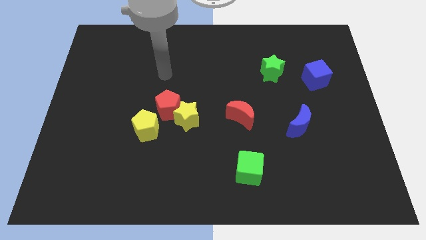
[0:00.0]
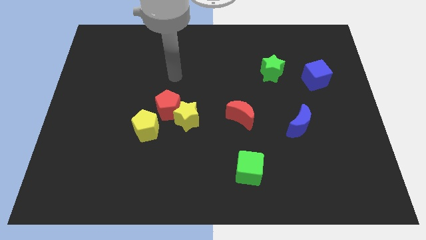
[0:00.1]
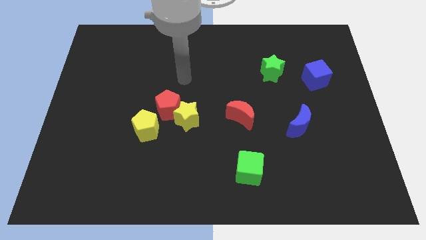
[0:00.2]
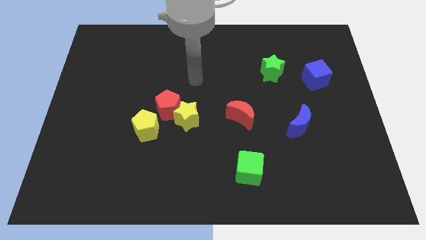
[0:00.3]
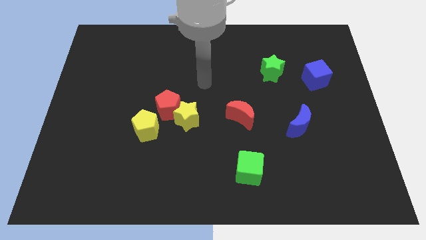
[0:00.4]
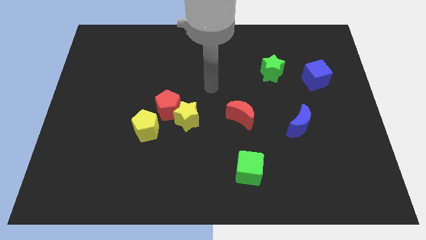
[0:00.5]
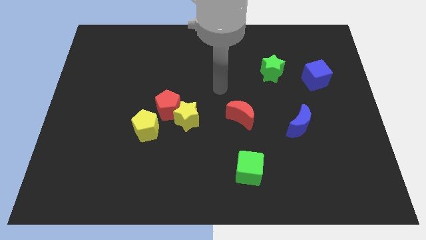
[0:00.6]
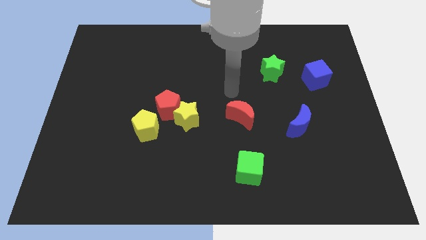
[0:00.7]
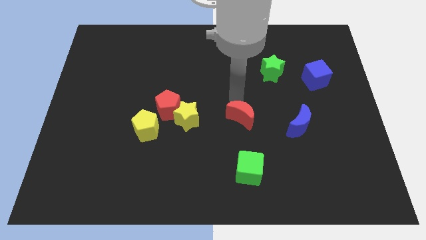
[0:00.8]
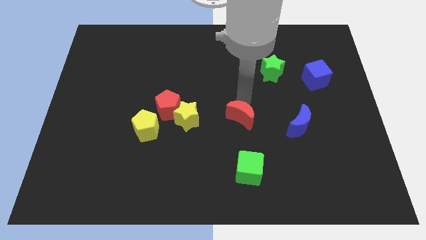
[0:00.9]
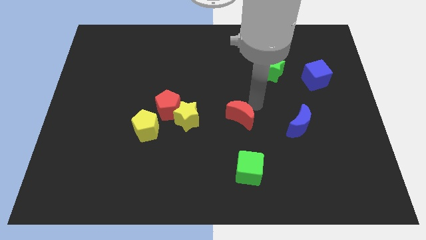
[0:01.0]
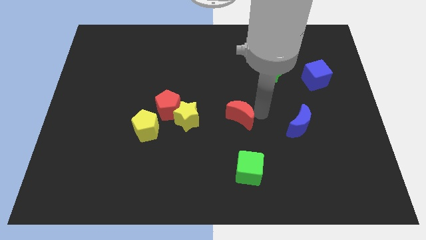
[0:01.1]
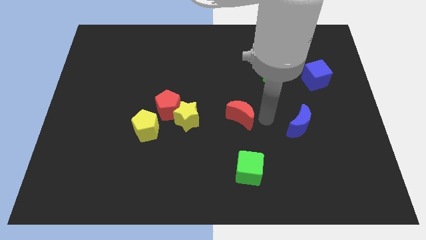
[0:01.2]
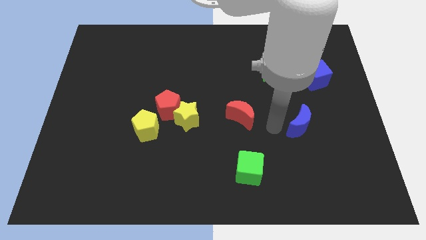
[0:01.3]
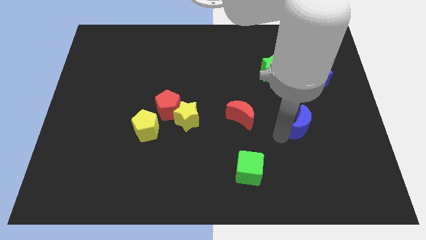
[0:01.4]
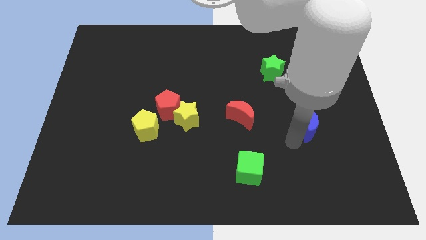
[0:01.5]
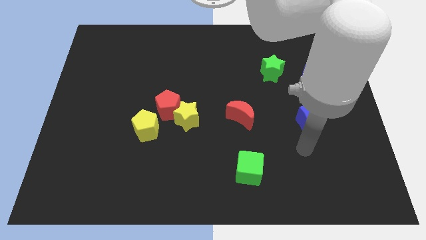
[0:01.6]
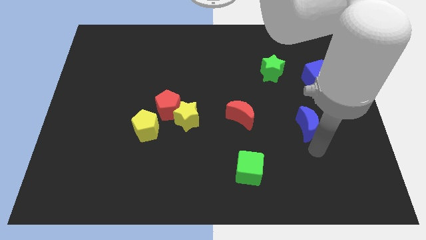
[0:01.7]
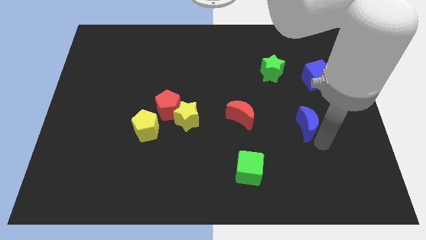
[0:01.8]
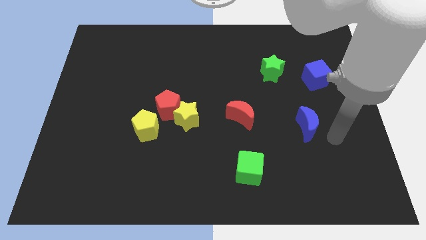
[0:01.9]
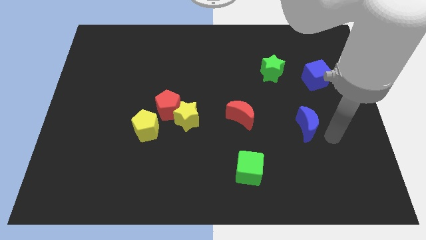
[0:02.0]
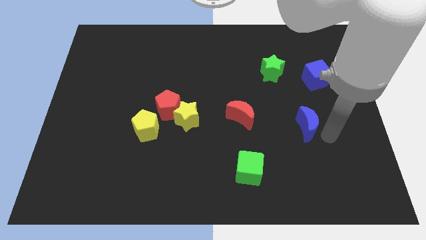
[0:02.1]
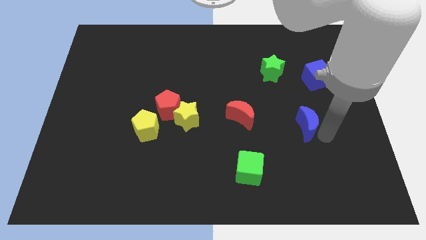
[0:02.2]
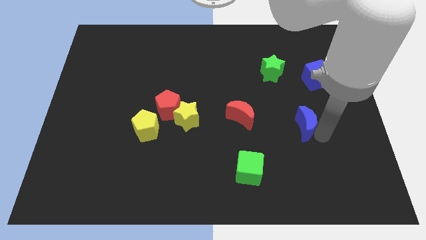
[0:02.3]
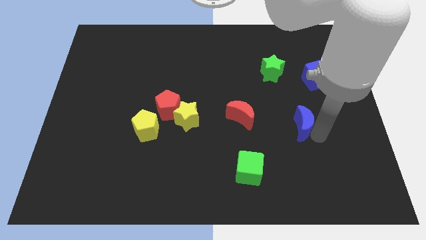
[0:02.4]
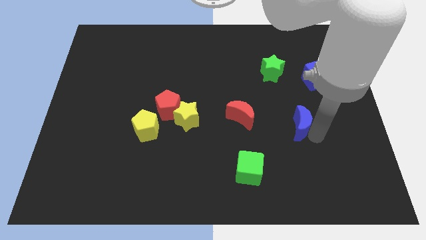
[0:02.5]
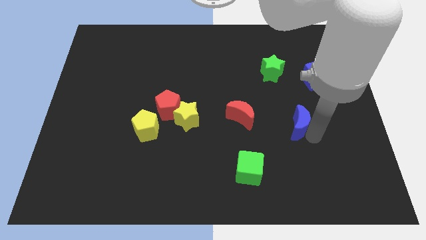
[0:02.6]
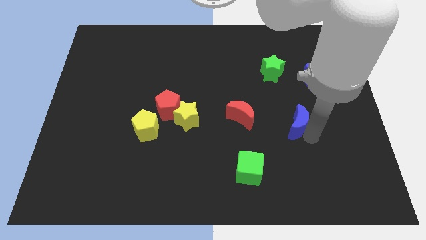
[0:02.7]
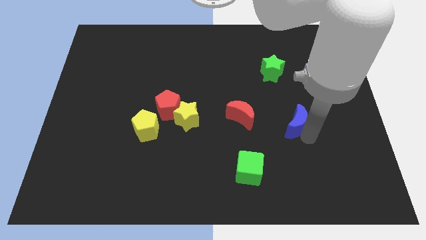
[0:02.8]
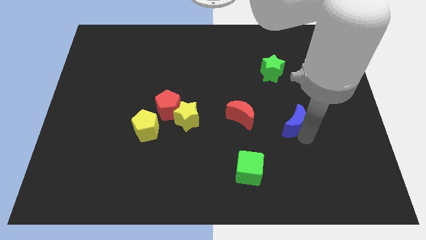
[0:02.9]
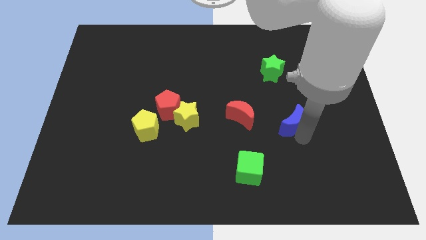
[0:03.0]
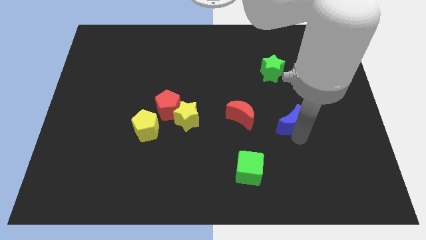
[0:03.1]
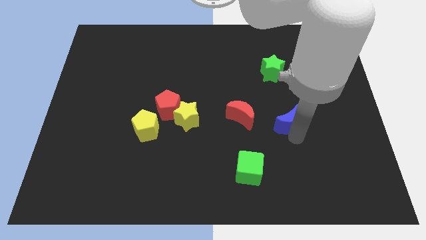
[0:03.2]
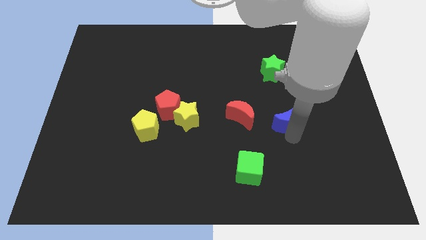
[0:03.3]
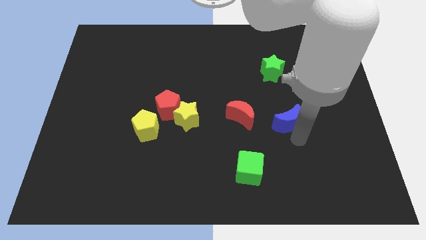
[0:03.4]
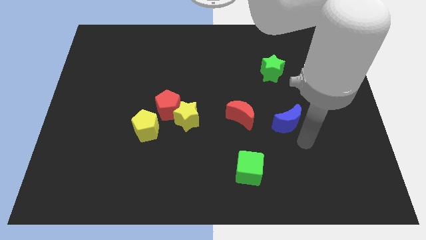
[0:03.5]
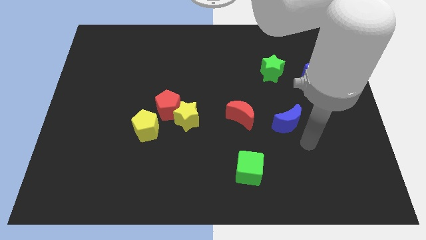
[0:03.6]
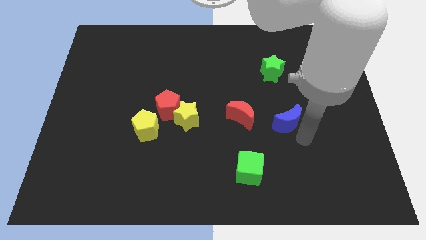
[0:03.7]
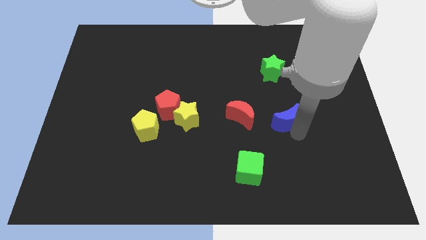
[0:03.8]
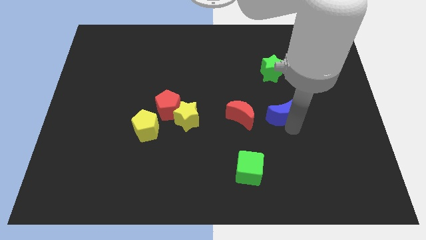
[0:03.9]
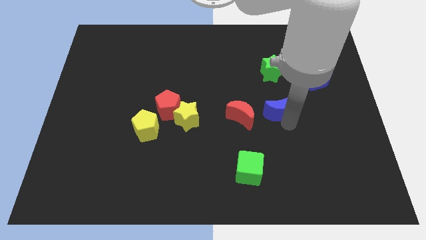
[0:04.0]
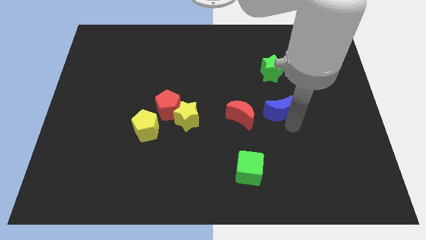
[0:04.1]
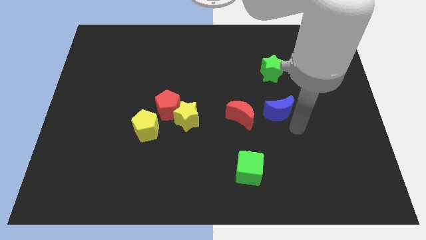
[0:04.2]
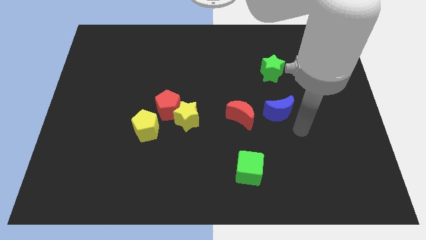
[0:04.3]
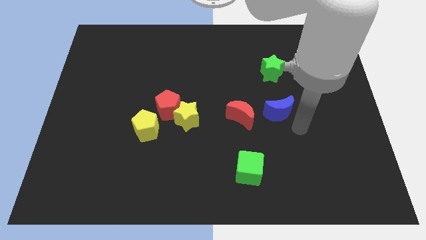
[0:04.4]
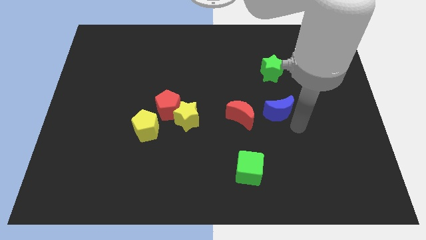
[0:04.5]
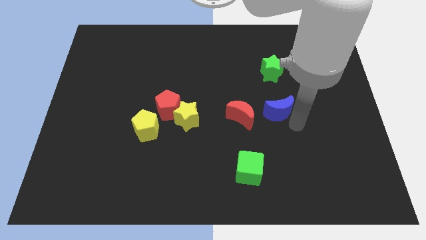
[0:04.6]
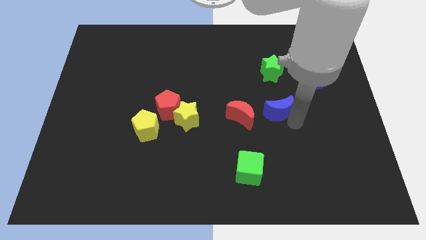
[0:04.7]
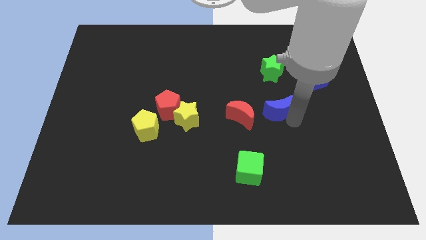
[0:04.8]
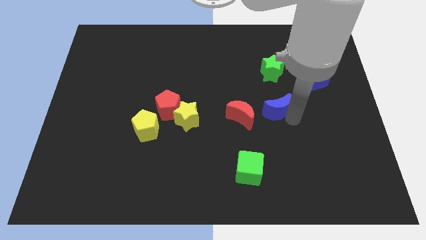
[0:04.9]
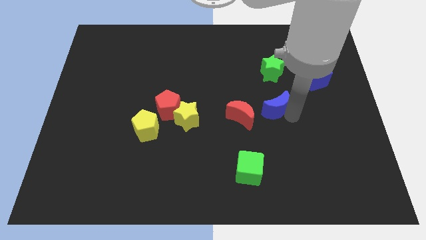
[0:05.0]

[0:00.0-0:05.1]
slide the blue moon a bit up and left diagonally

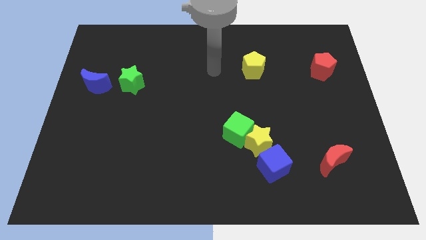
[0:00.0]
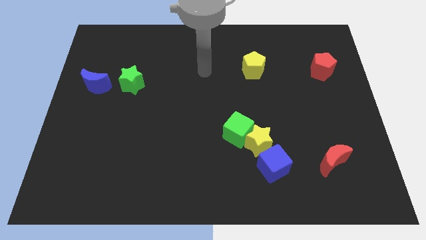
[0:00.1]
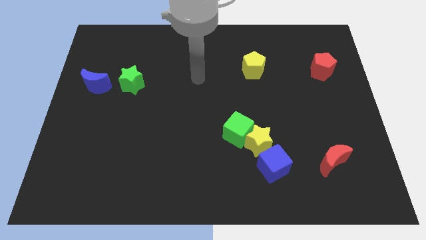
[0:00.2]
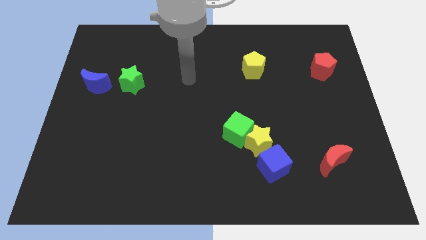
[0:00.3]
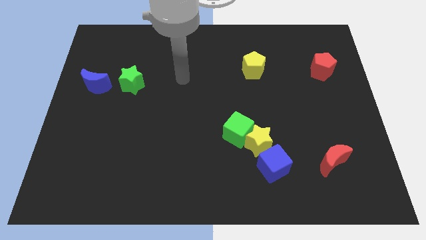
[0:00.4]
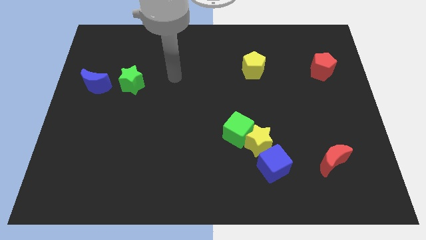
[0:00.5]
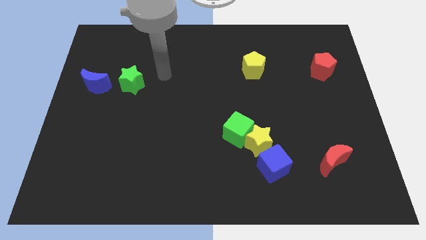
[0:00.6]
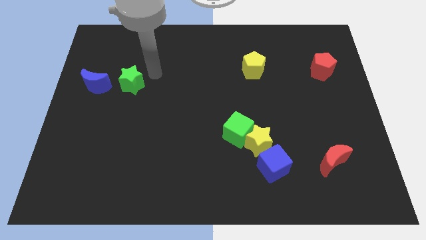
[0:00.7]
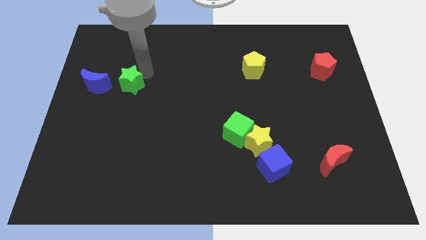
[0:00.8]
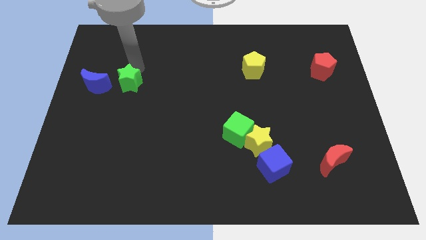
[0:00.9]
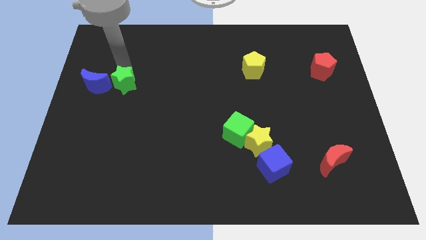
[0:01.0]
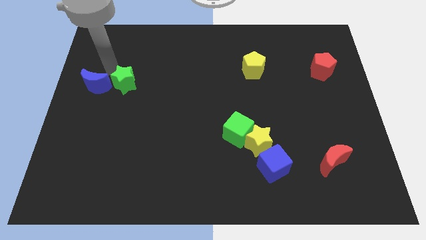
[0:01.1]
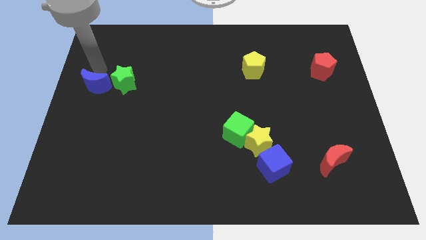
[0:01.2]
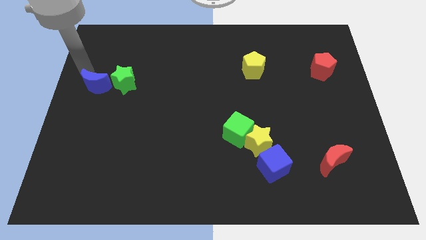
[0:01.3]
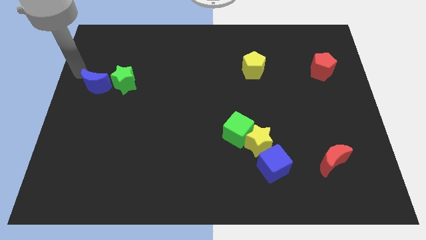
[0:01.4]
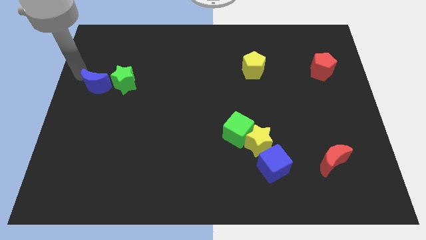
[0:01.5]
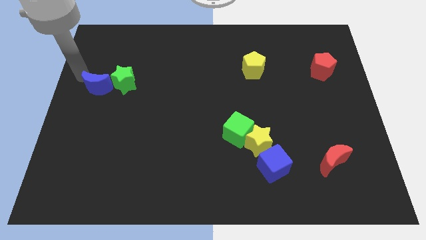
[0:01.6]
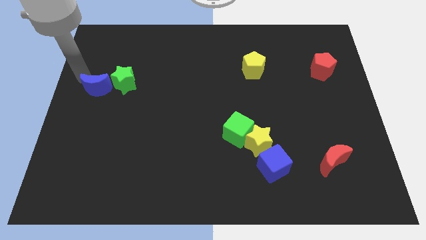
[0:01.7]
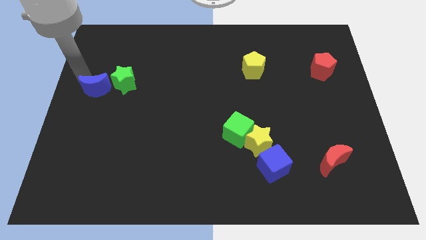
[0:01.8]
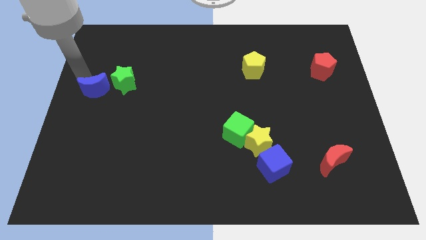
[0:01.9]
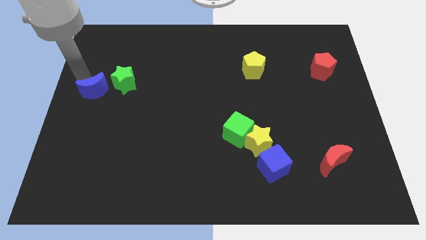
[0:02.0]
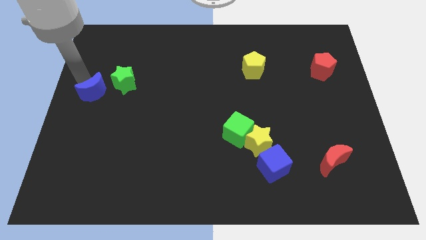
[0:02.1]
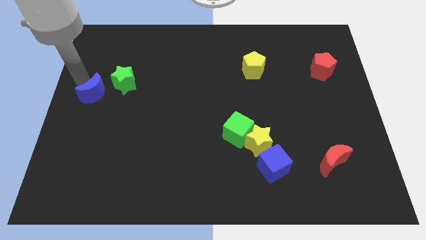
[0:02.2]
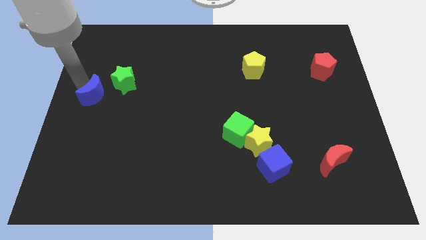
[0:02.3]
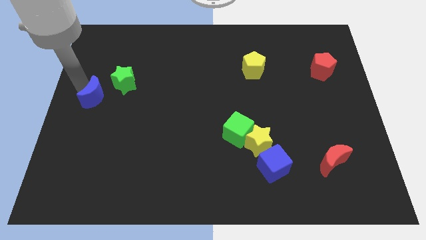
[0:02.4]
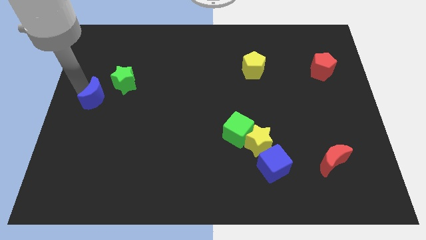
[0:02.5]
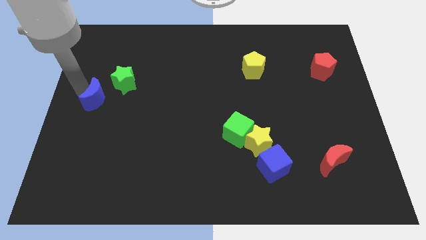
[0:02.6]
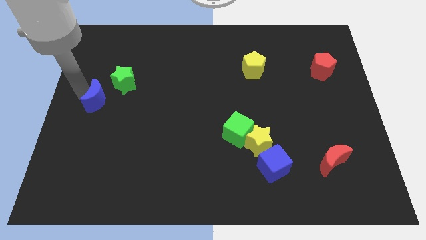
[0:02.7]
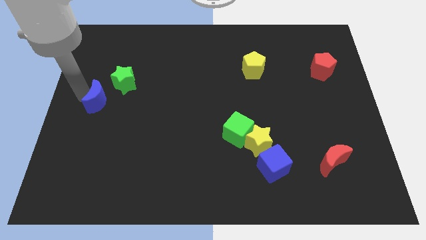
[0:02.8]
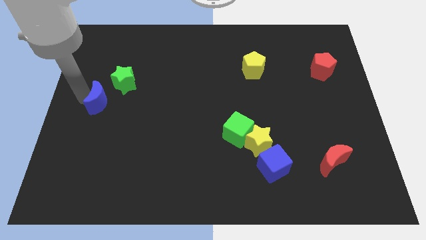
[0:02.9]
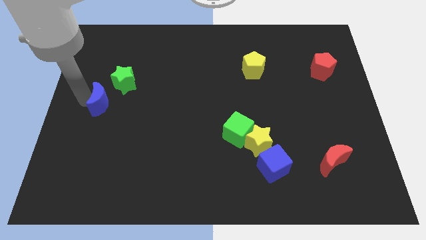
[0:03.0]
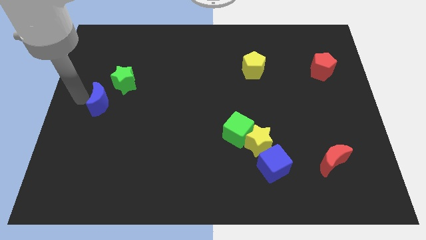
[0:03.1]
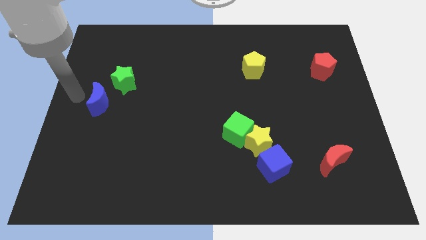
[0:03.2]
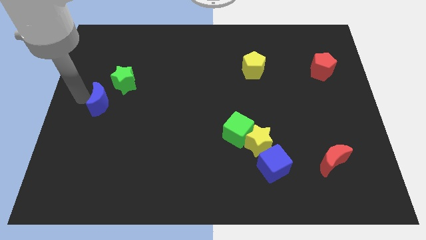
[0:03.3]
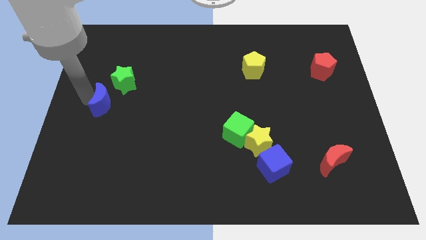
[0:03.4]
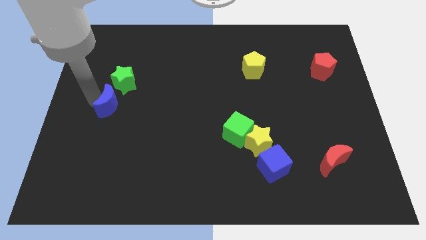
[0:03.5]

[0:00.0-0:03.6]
slightly push the blue moon down and right
